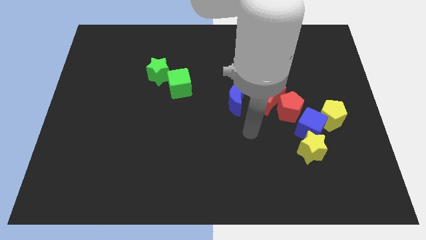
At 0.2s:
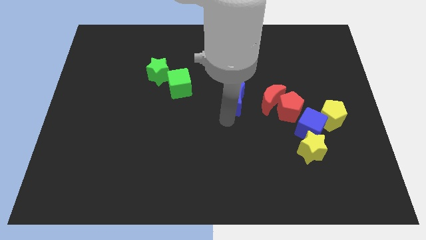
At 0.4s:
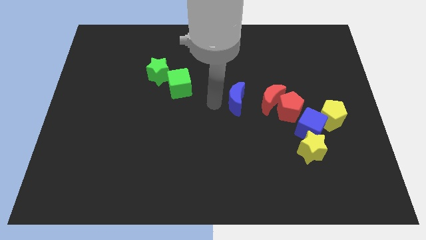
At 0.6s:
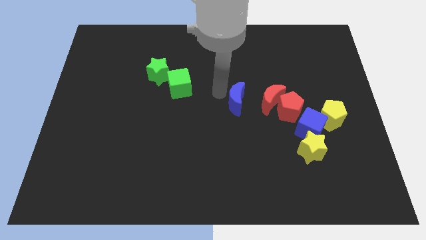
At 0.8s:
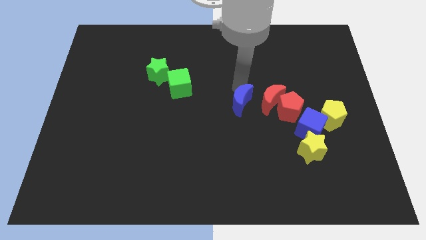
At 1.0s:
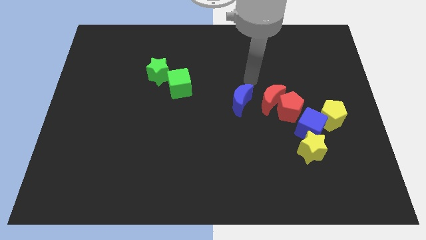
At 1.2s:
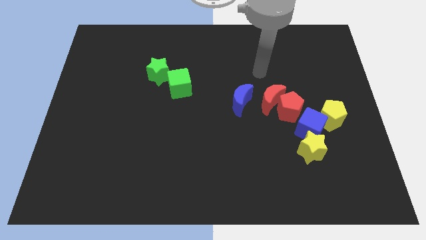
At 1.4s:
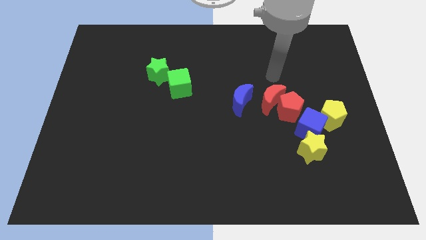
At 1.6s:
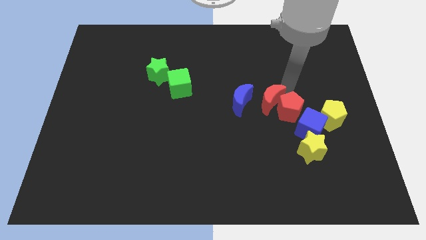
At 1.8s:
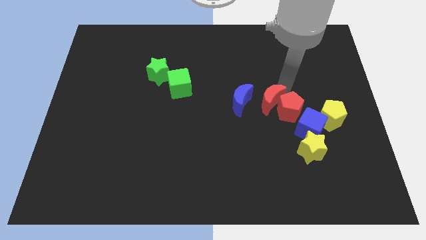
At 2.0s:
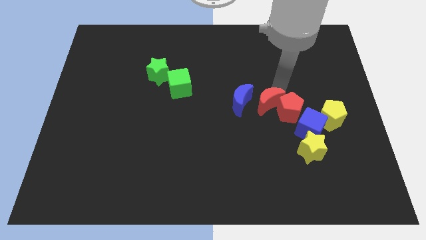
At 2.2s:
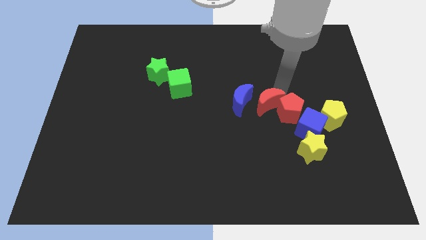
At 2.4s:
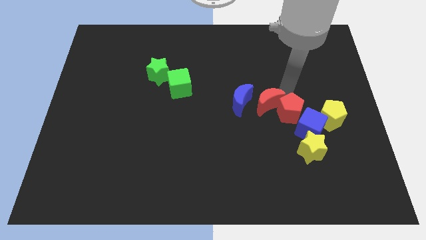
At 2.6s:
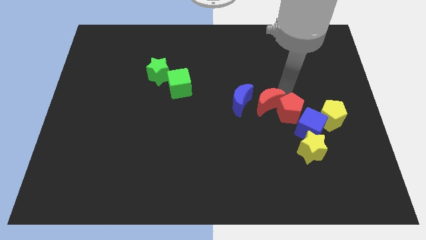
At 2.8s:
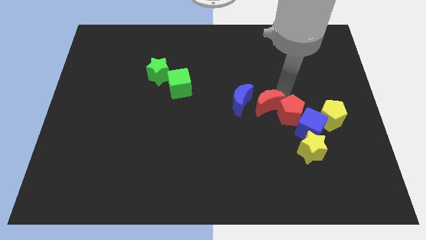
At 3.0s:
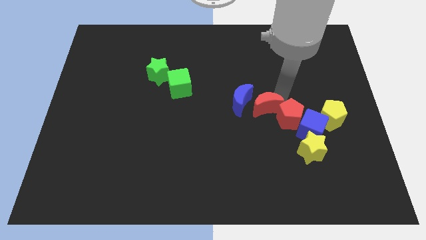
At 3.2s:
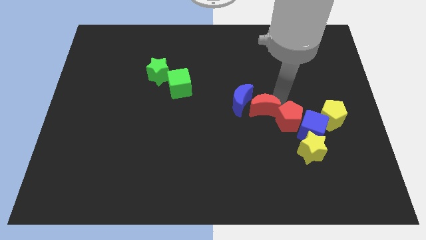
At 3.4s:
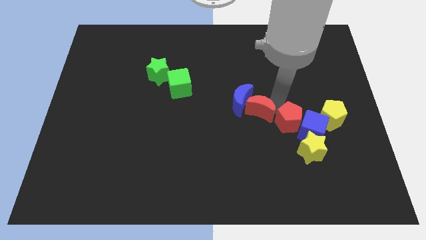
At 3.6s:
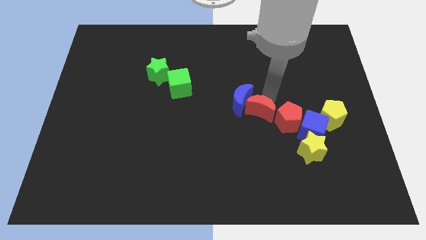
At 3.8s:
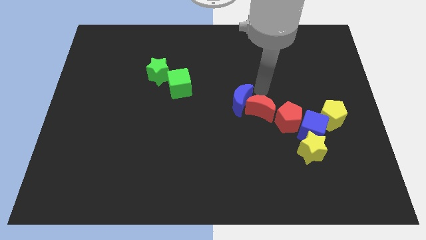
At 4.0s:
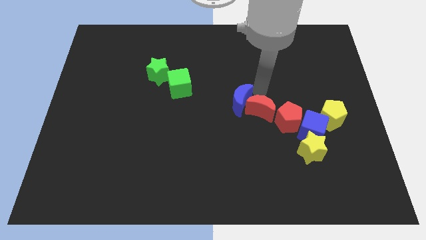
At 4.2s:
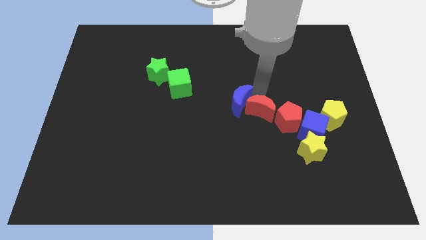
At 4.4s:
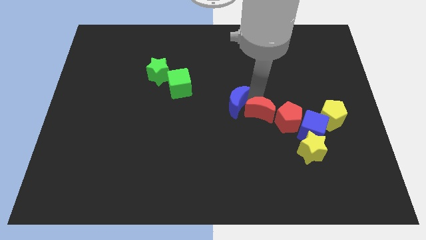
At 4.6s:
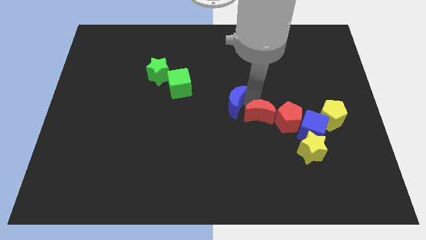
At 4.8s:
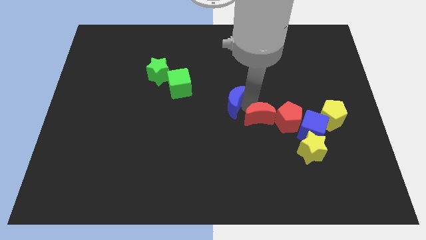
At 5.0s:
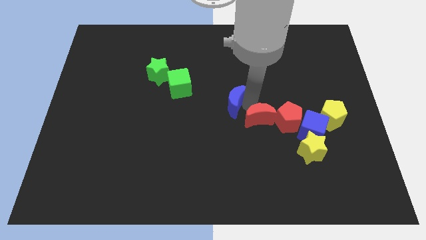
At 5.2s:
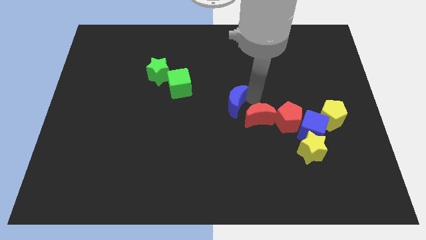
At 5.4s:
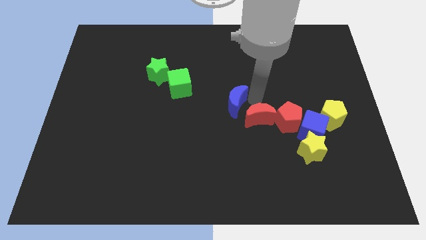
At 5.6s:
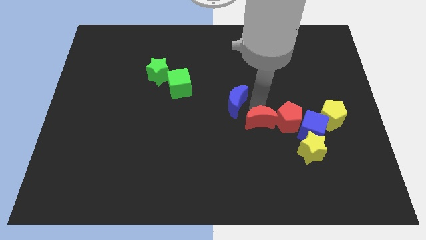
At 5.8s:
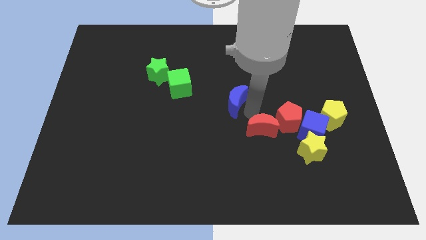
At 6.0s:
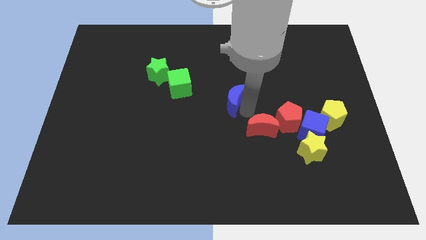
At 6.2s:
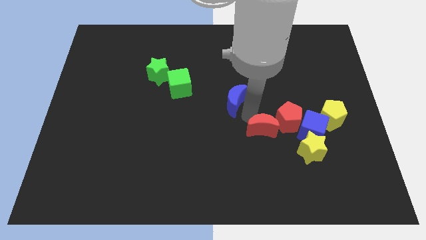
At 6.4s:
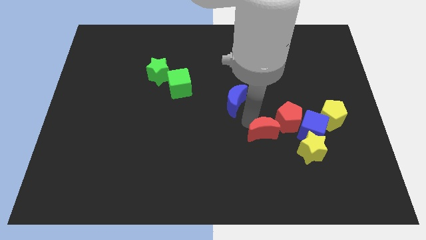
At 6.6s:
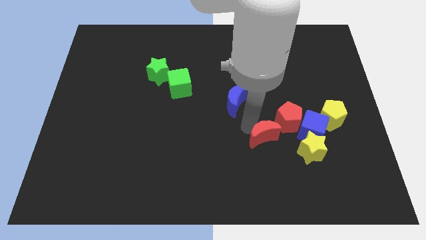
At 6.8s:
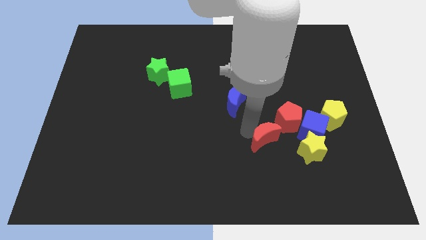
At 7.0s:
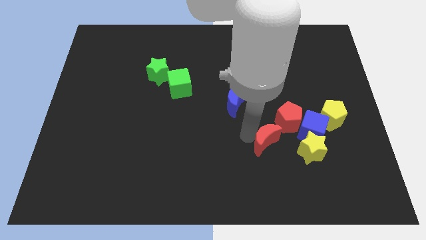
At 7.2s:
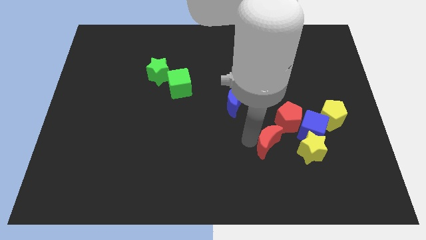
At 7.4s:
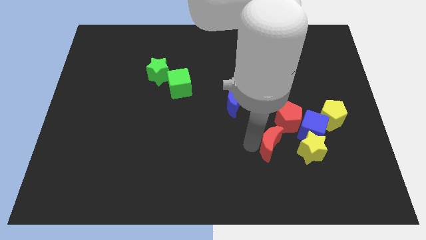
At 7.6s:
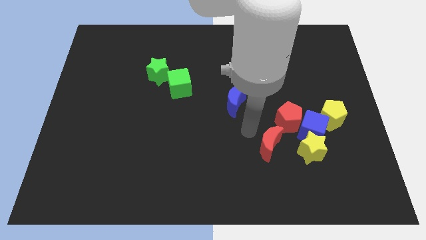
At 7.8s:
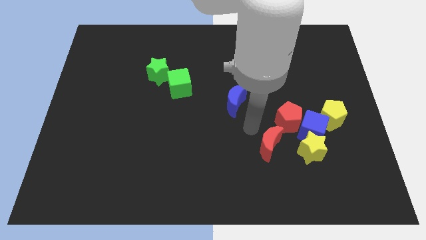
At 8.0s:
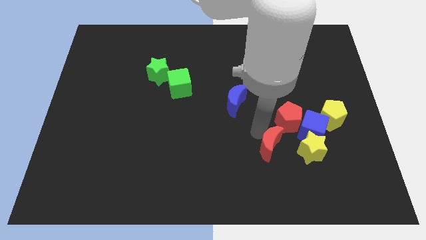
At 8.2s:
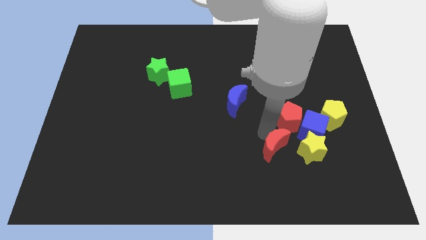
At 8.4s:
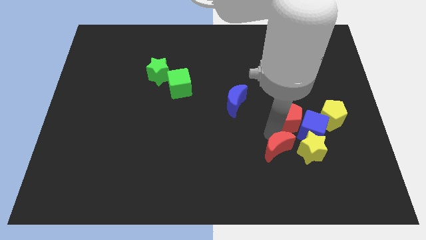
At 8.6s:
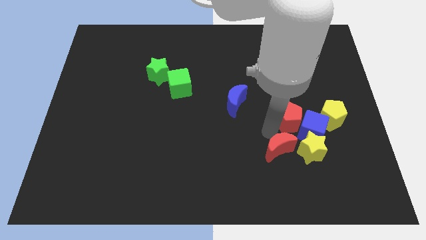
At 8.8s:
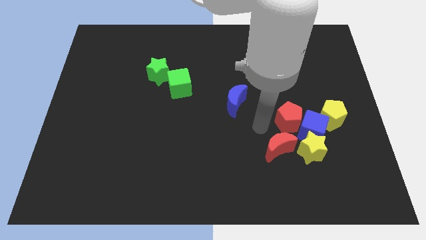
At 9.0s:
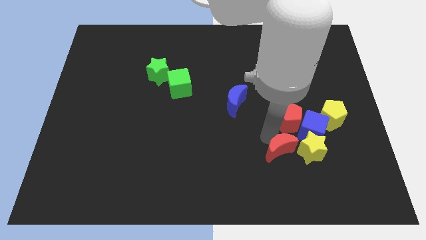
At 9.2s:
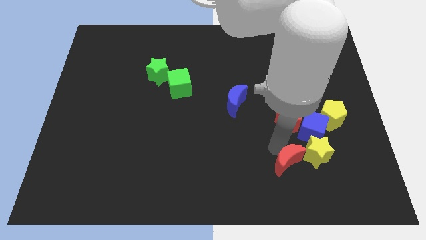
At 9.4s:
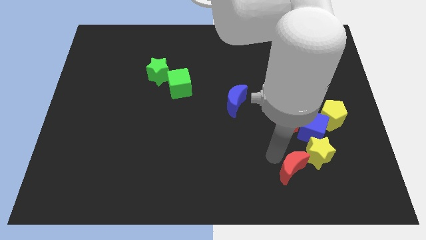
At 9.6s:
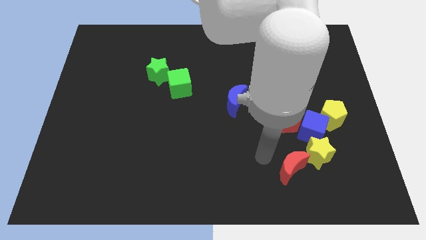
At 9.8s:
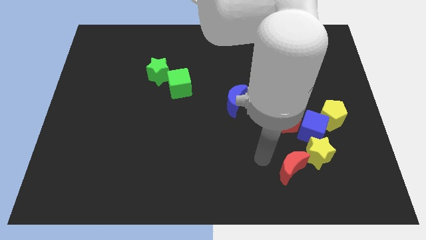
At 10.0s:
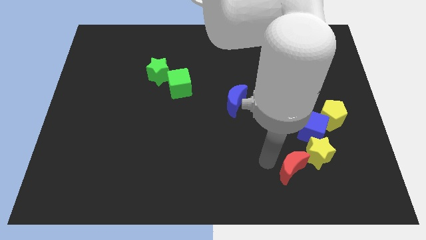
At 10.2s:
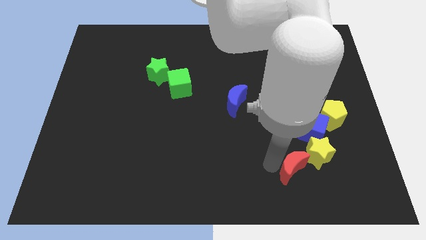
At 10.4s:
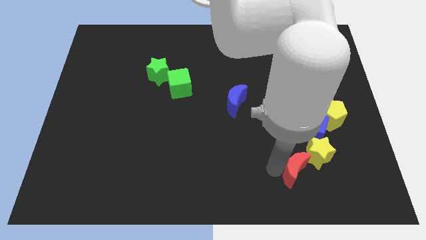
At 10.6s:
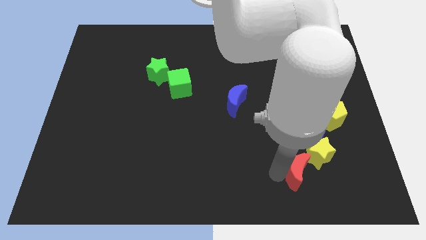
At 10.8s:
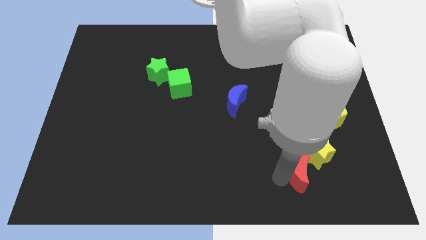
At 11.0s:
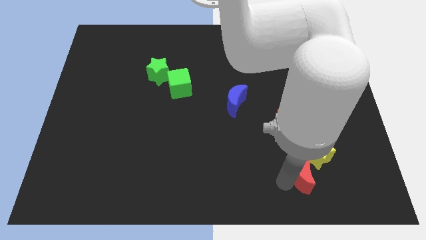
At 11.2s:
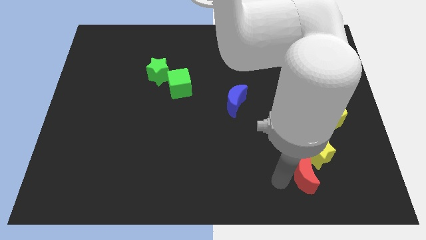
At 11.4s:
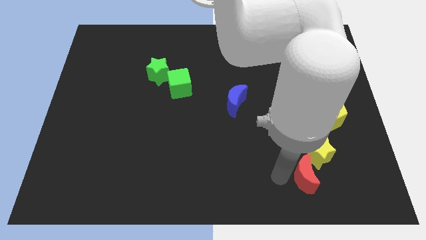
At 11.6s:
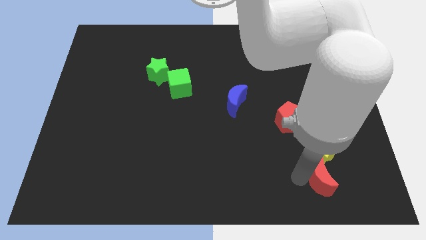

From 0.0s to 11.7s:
move the red moon to the bottom right side of the yellow star

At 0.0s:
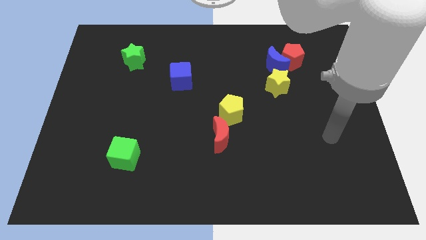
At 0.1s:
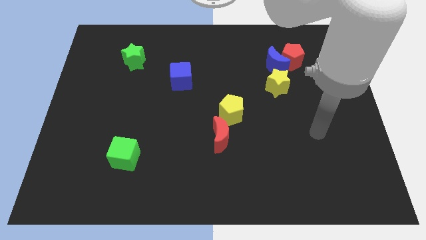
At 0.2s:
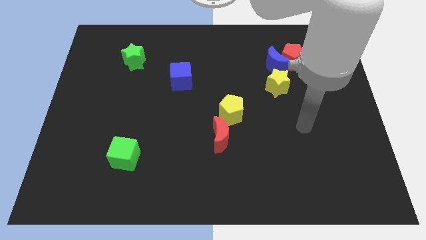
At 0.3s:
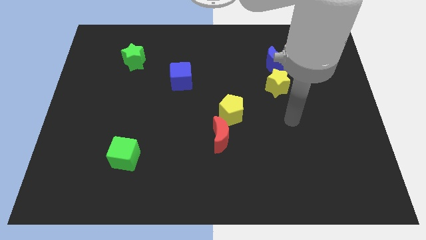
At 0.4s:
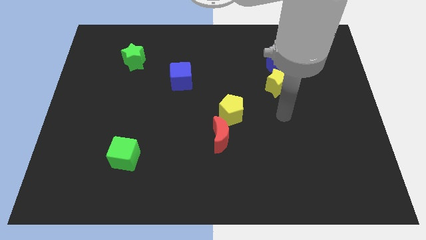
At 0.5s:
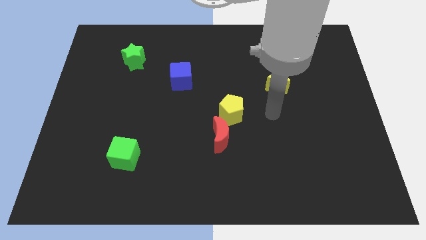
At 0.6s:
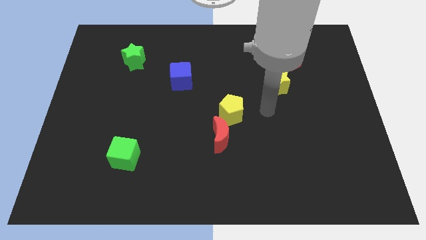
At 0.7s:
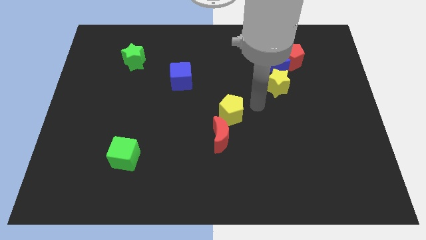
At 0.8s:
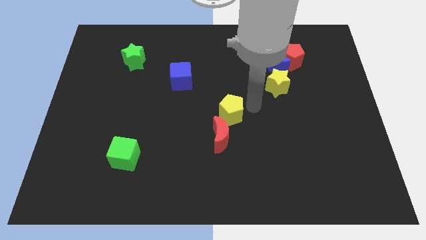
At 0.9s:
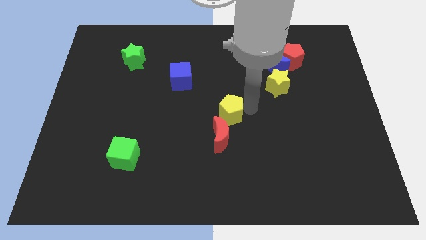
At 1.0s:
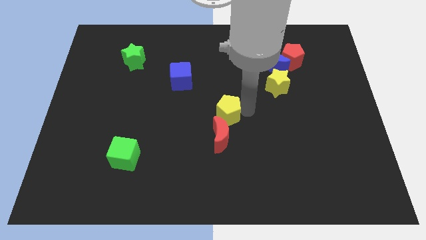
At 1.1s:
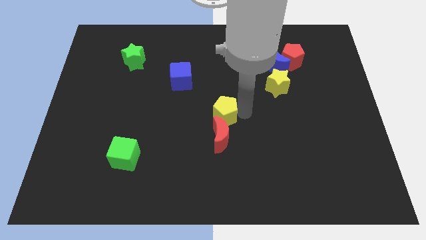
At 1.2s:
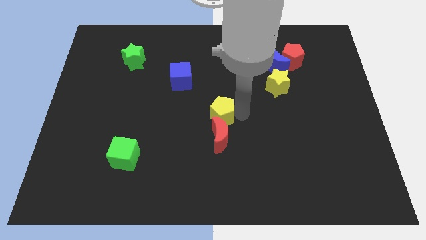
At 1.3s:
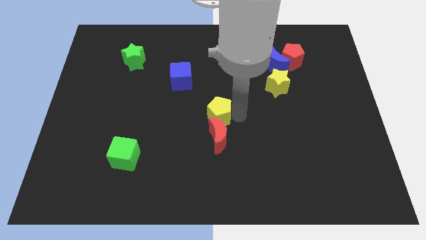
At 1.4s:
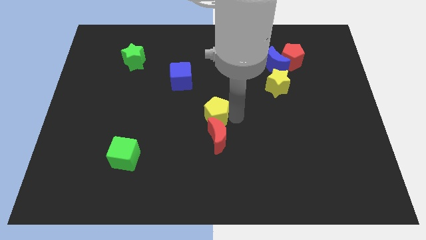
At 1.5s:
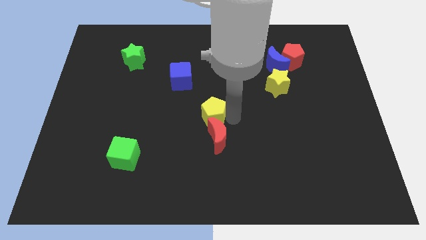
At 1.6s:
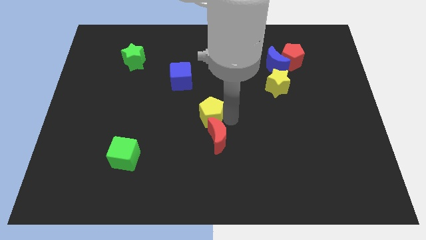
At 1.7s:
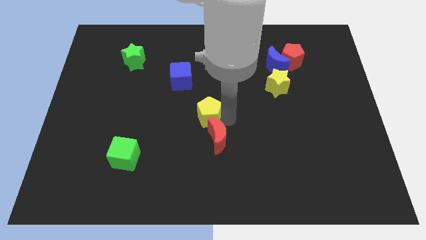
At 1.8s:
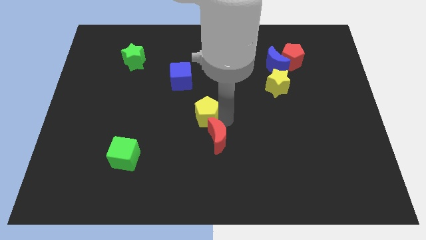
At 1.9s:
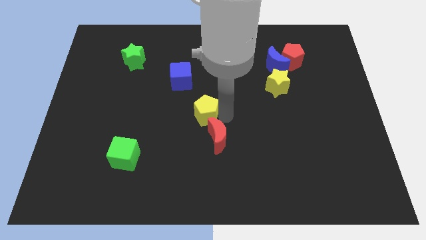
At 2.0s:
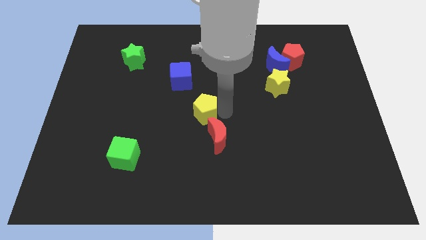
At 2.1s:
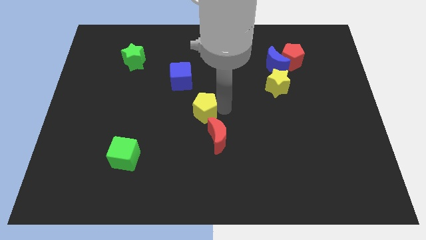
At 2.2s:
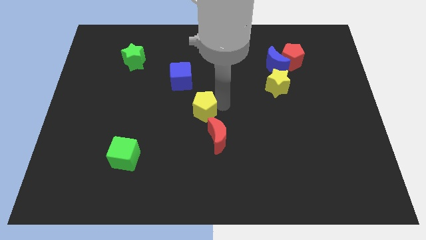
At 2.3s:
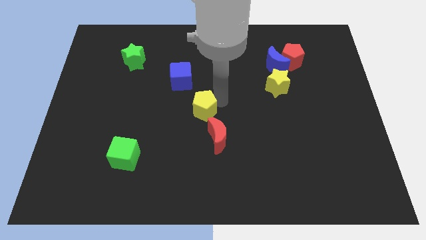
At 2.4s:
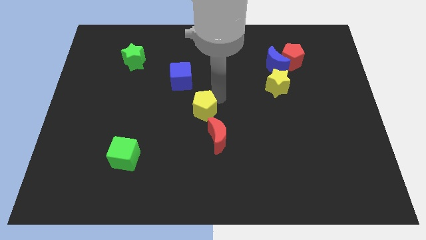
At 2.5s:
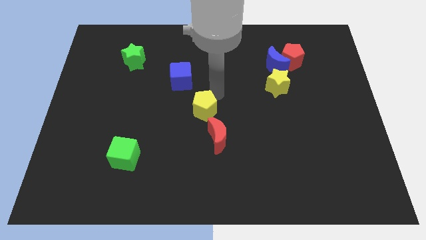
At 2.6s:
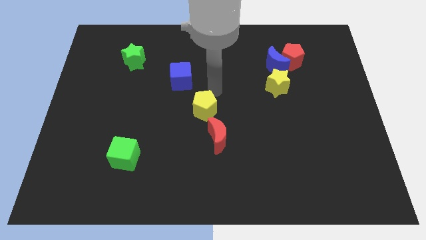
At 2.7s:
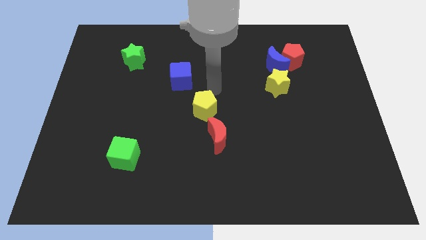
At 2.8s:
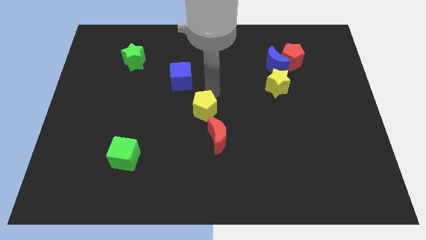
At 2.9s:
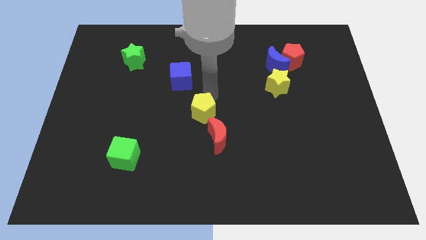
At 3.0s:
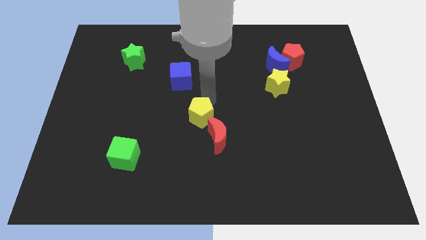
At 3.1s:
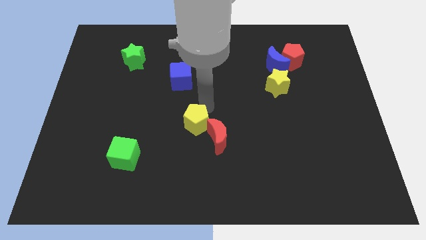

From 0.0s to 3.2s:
slide the yellow pentagon to the left side of the red moon
